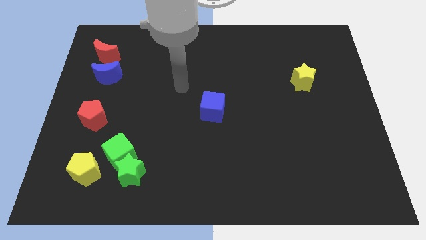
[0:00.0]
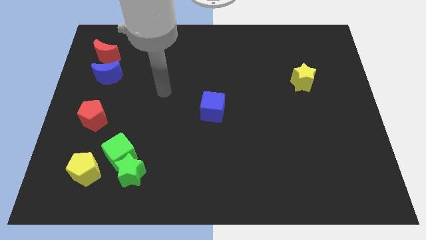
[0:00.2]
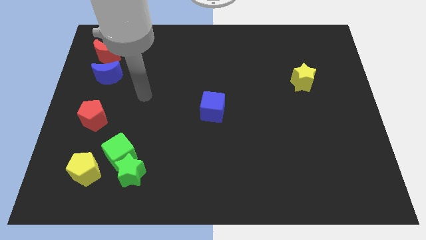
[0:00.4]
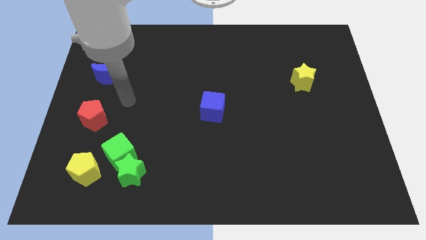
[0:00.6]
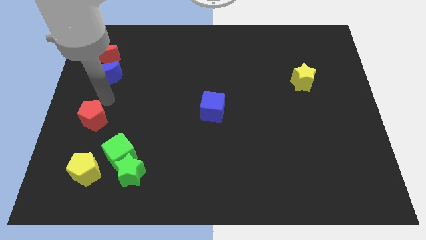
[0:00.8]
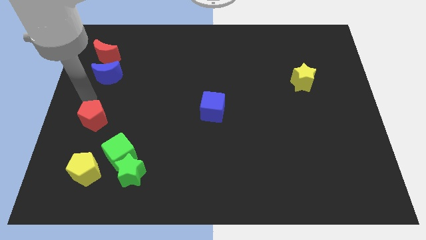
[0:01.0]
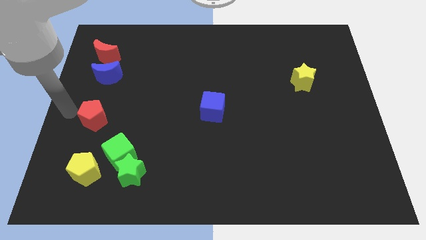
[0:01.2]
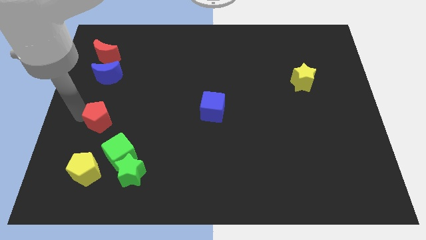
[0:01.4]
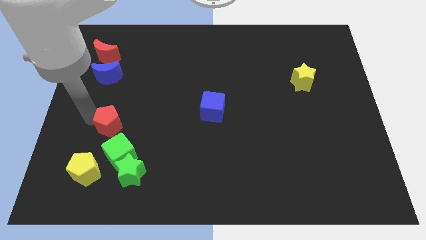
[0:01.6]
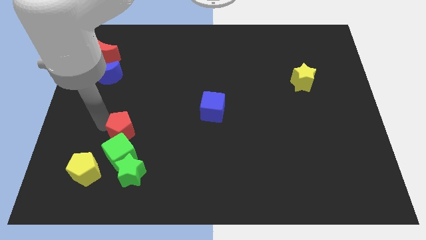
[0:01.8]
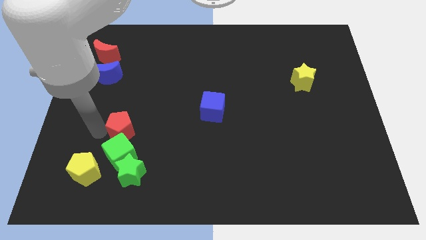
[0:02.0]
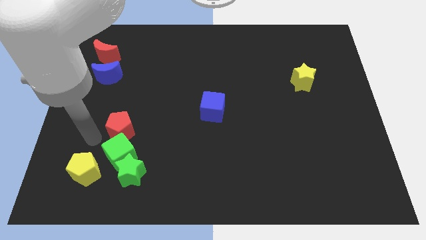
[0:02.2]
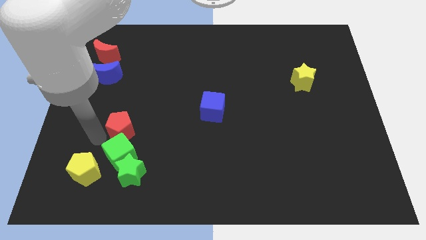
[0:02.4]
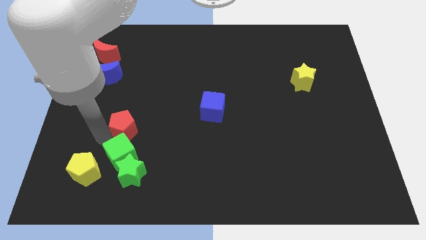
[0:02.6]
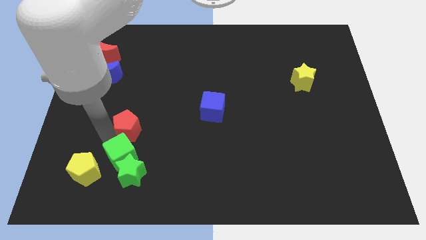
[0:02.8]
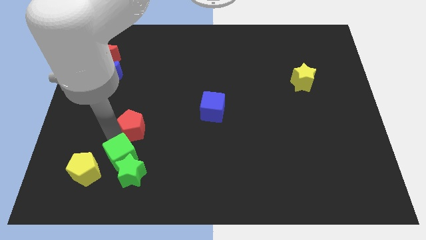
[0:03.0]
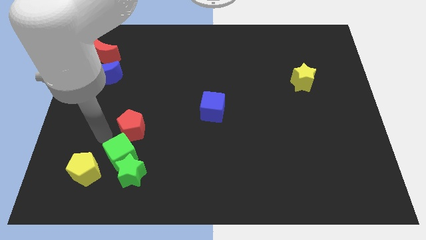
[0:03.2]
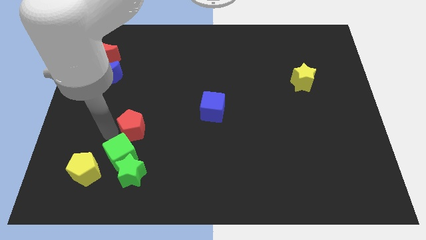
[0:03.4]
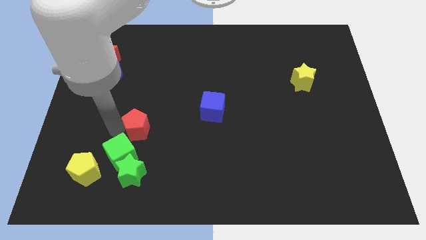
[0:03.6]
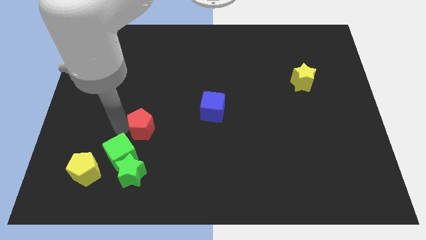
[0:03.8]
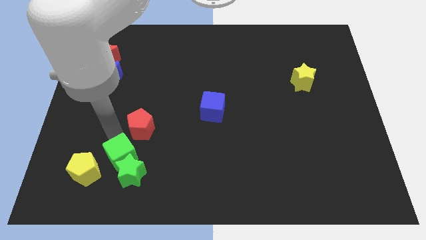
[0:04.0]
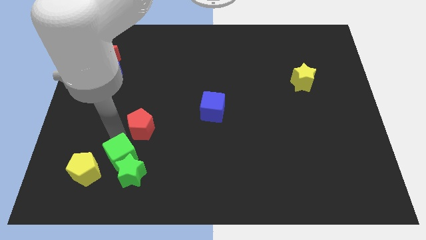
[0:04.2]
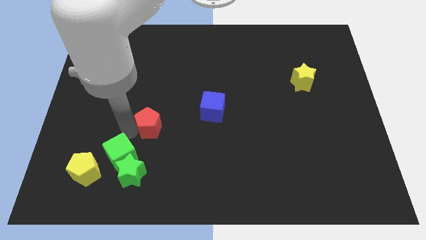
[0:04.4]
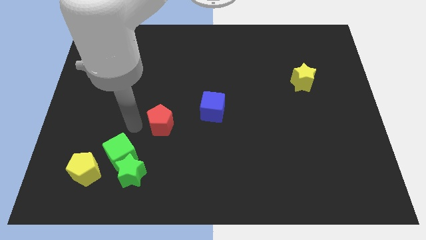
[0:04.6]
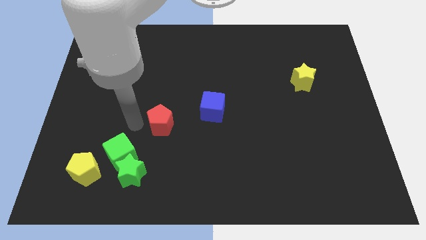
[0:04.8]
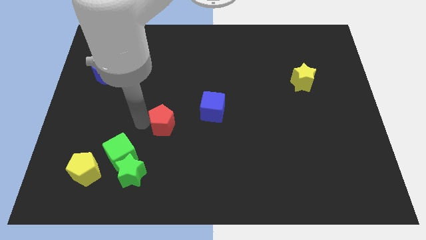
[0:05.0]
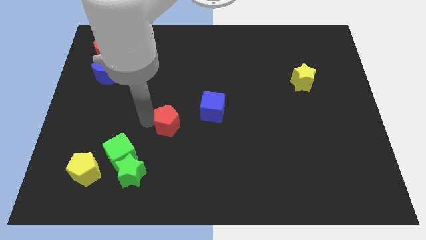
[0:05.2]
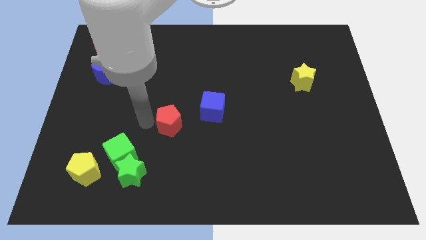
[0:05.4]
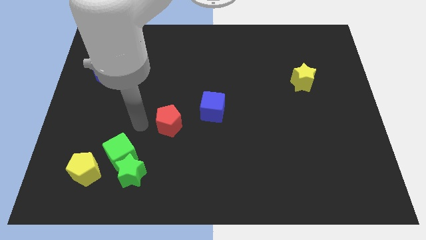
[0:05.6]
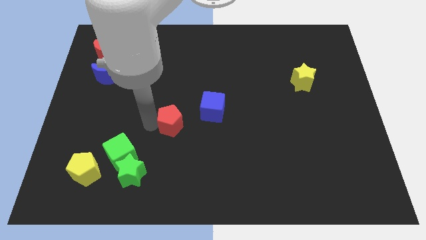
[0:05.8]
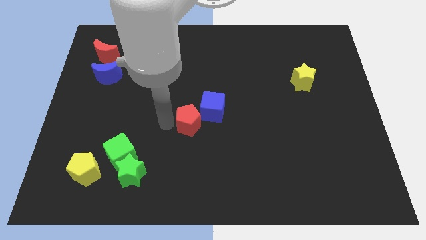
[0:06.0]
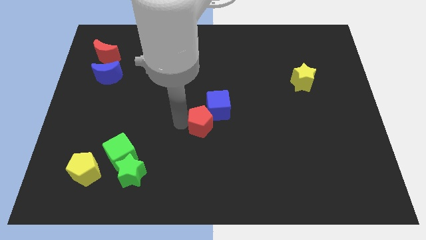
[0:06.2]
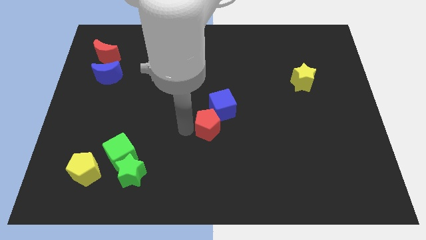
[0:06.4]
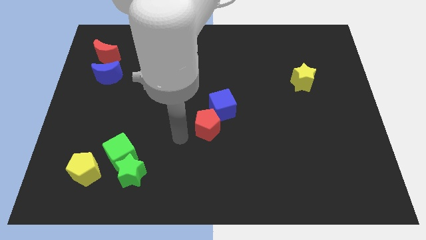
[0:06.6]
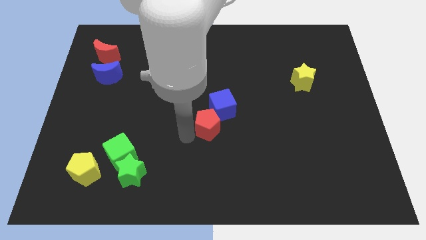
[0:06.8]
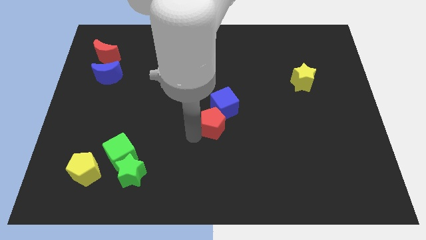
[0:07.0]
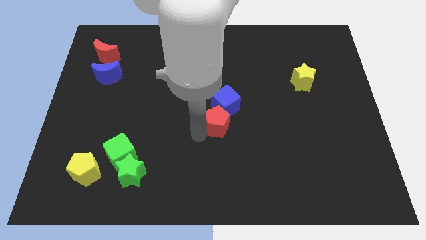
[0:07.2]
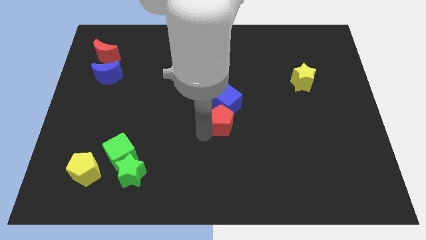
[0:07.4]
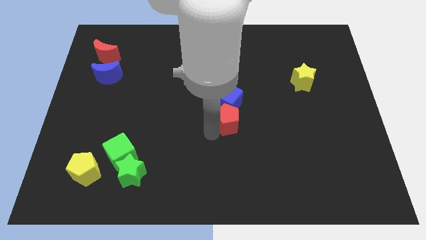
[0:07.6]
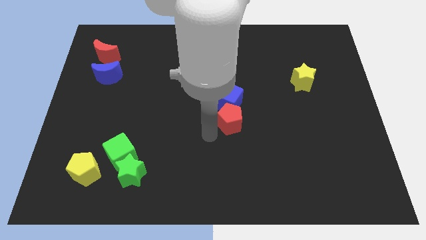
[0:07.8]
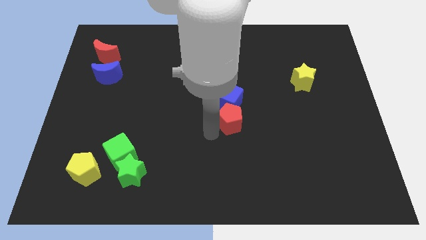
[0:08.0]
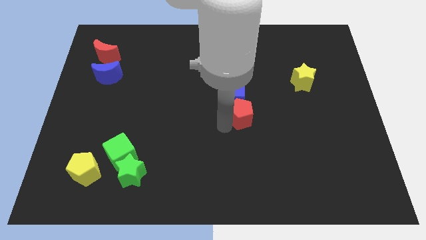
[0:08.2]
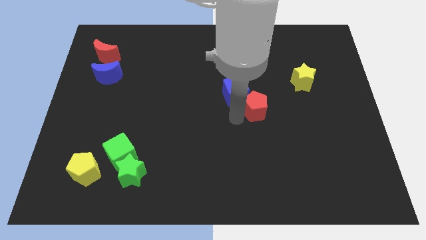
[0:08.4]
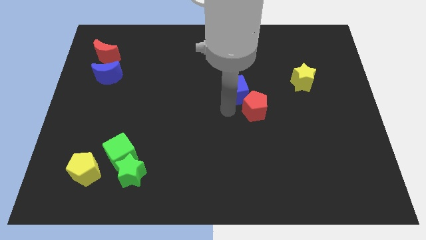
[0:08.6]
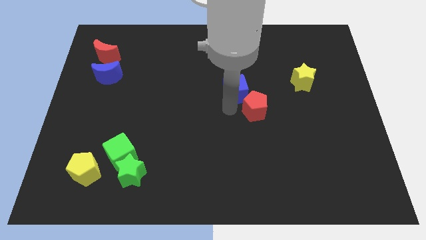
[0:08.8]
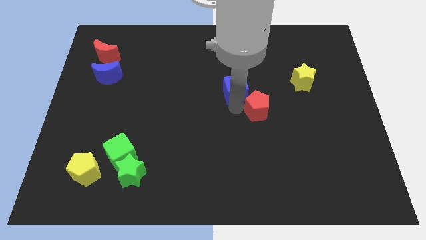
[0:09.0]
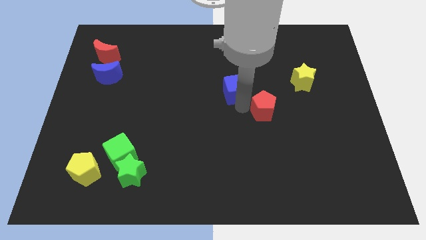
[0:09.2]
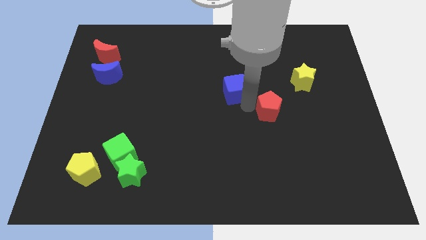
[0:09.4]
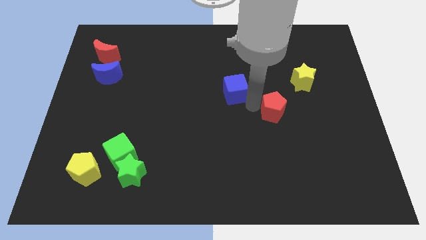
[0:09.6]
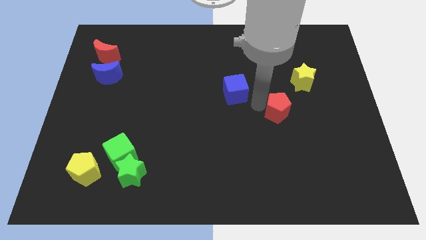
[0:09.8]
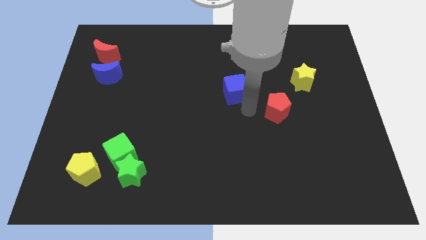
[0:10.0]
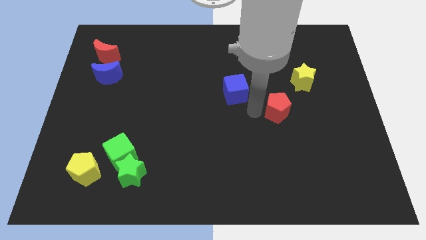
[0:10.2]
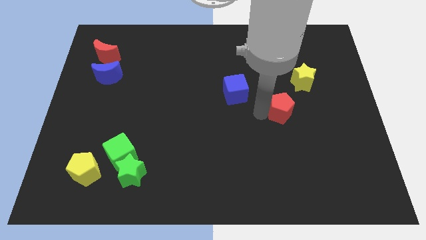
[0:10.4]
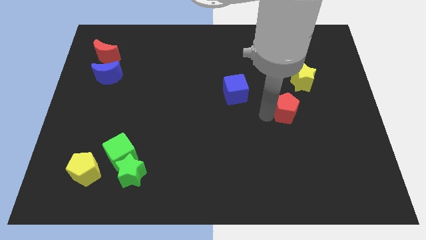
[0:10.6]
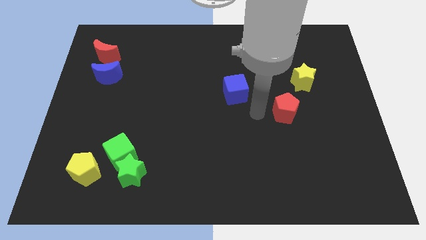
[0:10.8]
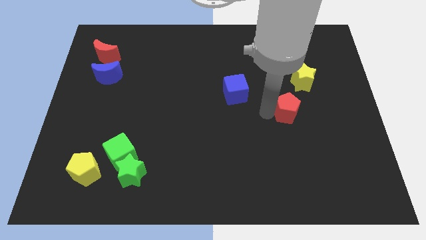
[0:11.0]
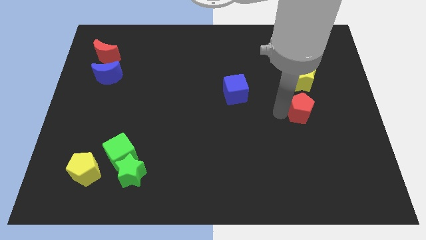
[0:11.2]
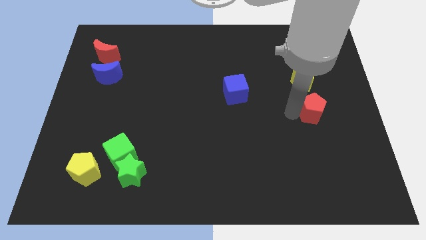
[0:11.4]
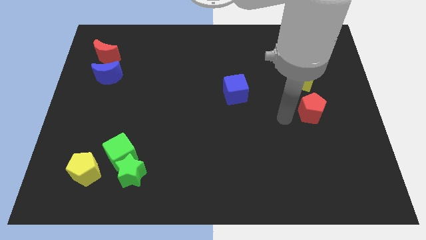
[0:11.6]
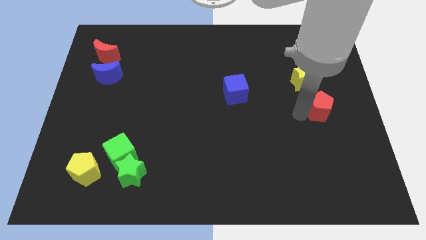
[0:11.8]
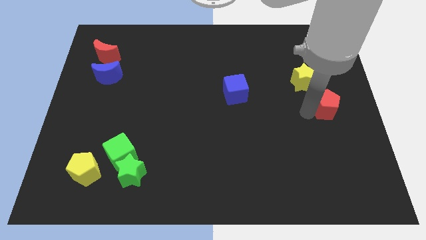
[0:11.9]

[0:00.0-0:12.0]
push the red pentagon to the right side
